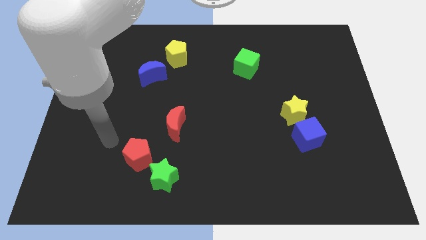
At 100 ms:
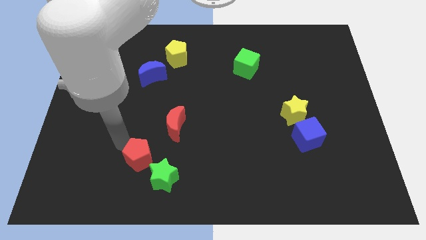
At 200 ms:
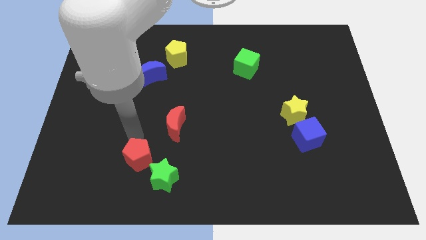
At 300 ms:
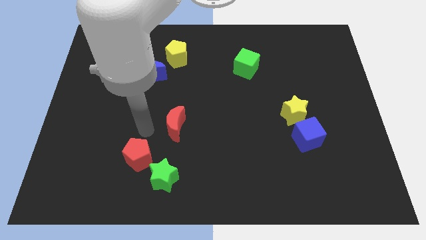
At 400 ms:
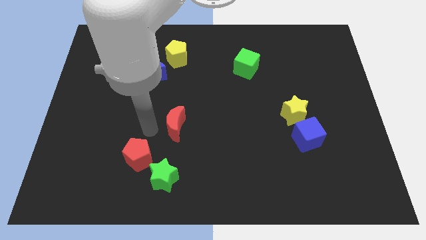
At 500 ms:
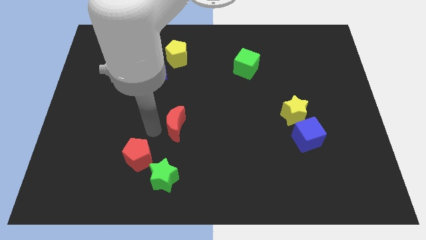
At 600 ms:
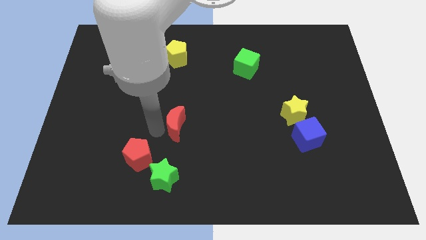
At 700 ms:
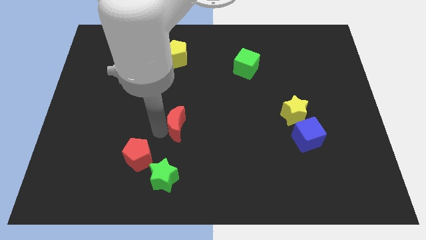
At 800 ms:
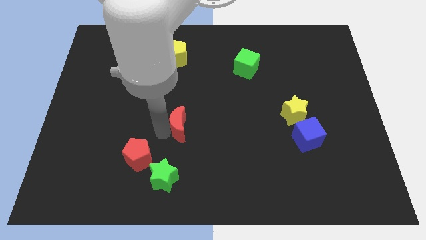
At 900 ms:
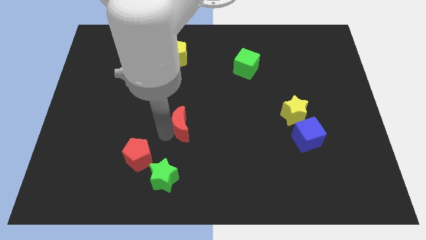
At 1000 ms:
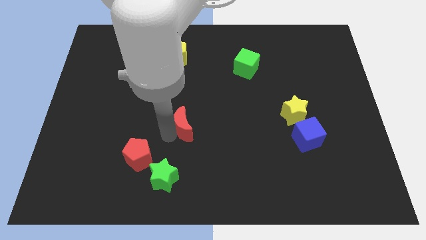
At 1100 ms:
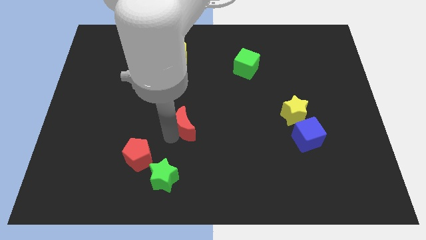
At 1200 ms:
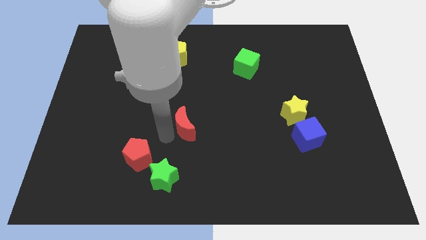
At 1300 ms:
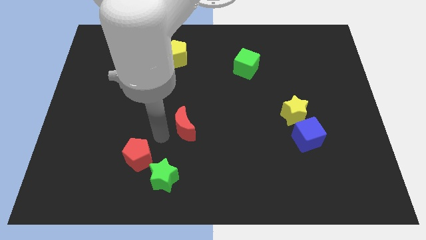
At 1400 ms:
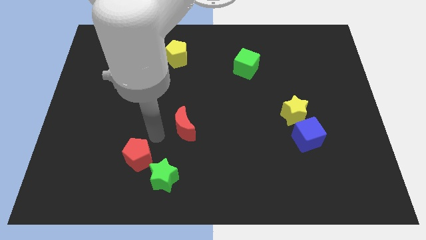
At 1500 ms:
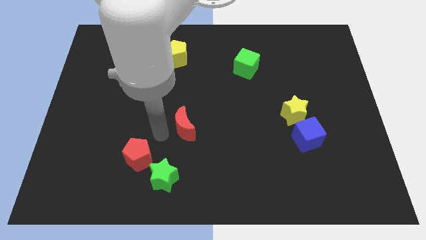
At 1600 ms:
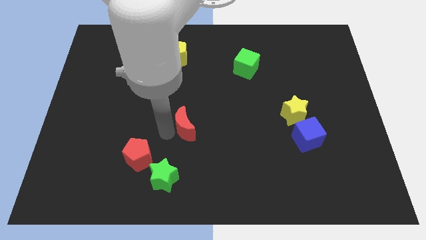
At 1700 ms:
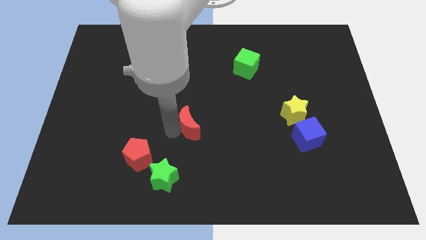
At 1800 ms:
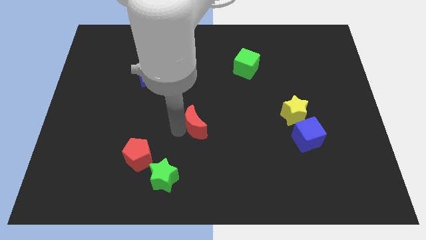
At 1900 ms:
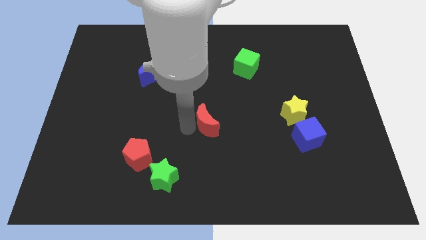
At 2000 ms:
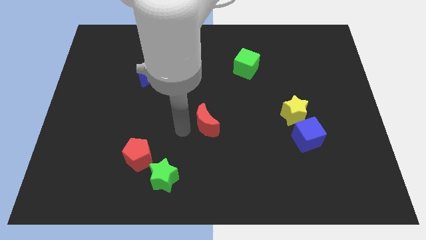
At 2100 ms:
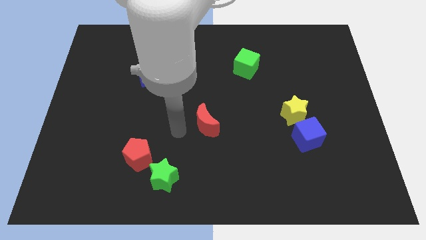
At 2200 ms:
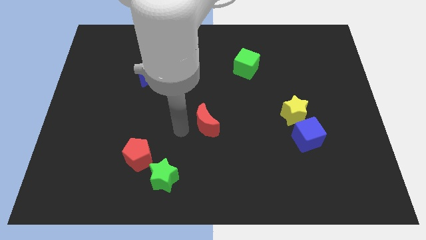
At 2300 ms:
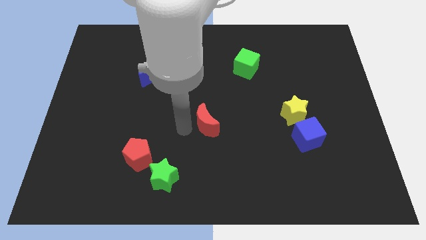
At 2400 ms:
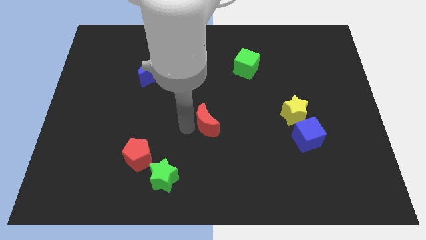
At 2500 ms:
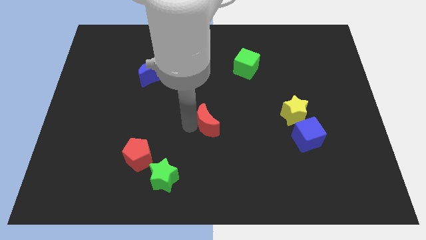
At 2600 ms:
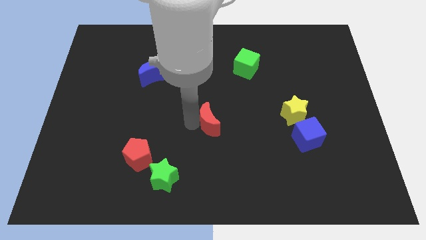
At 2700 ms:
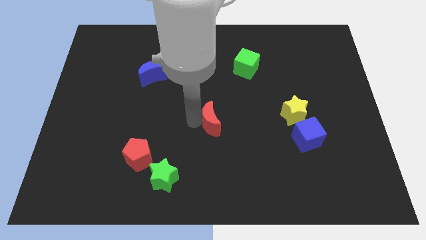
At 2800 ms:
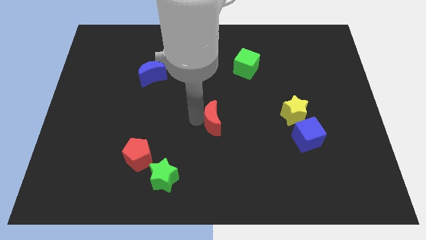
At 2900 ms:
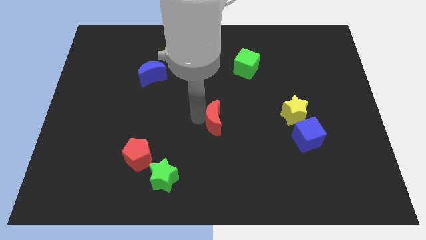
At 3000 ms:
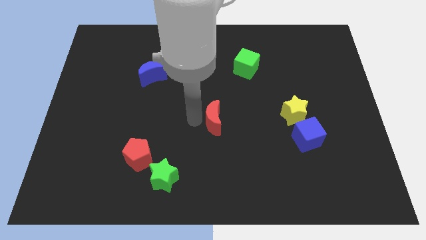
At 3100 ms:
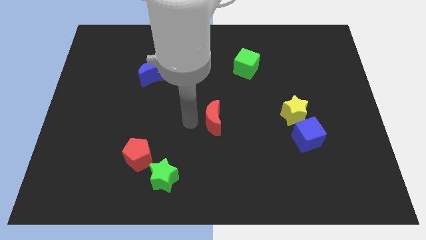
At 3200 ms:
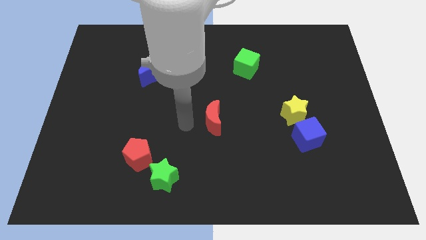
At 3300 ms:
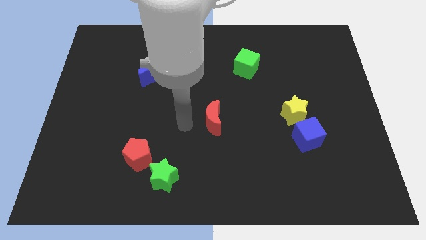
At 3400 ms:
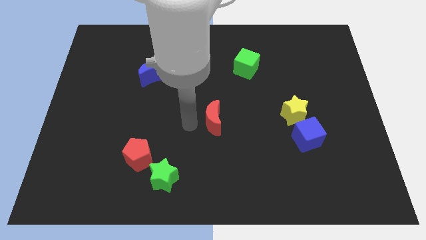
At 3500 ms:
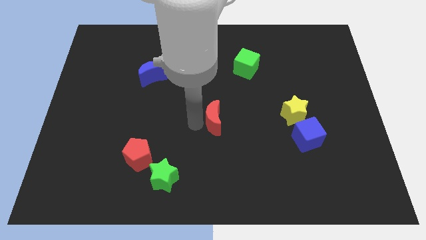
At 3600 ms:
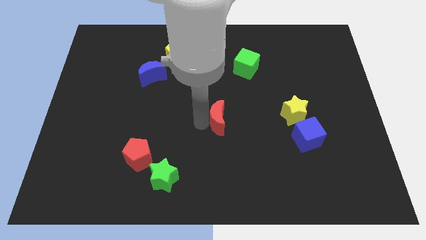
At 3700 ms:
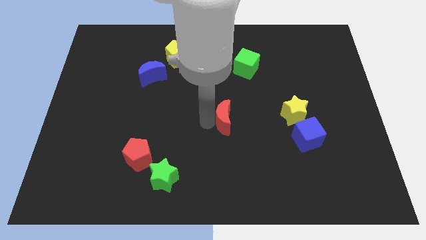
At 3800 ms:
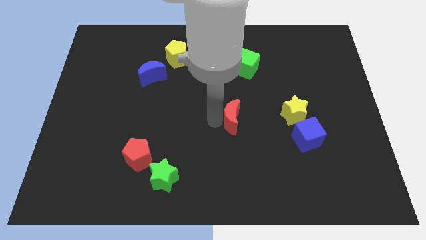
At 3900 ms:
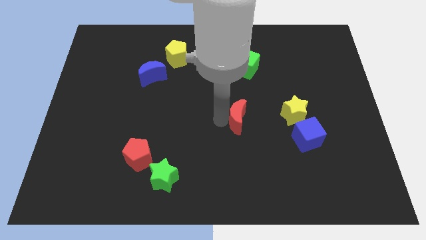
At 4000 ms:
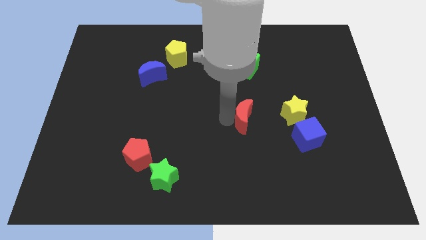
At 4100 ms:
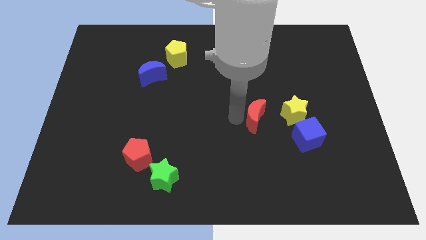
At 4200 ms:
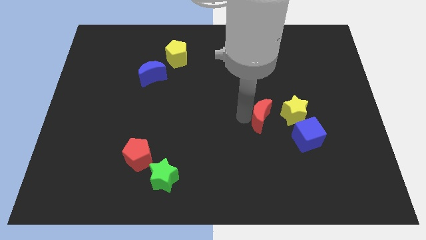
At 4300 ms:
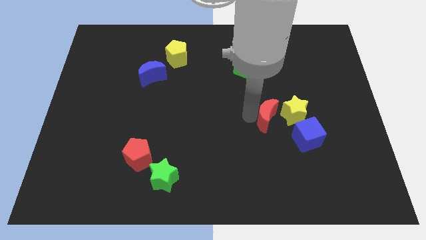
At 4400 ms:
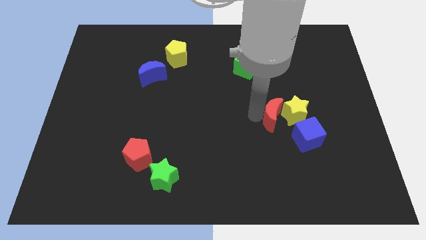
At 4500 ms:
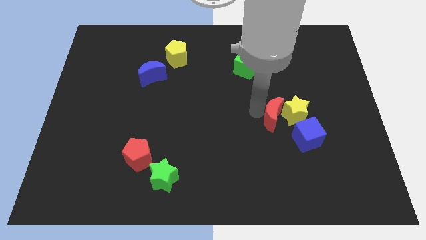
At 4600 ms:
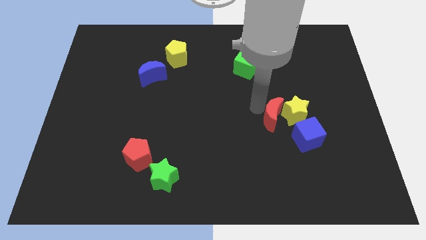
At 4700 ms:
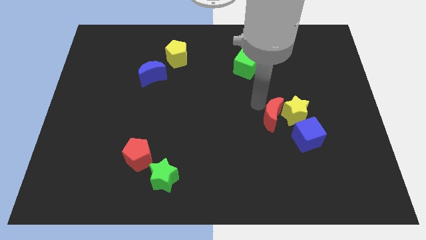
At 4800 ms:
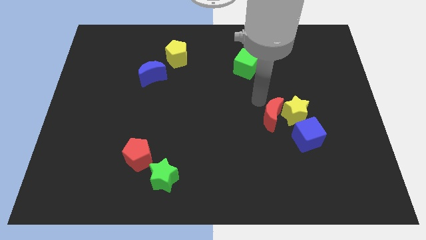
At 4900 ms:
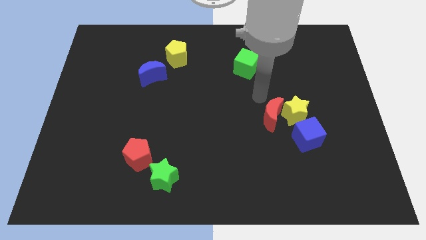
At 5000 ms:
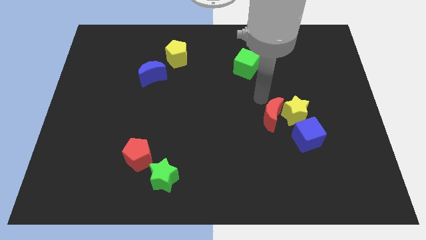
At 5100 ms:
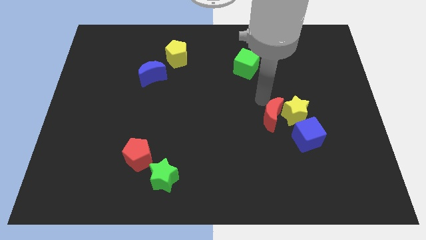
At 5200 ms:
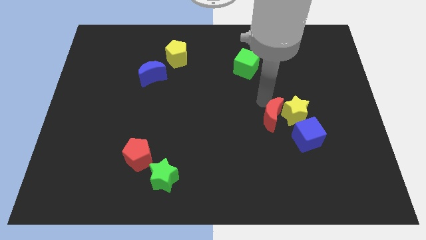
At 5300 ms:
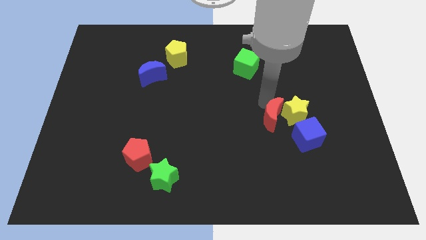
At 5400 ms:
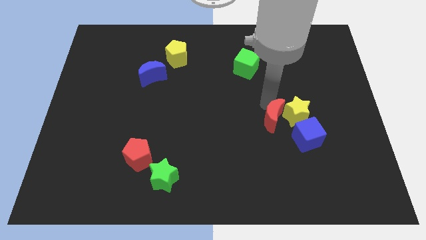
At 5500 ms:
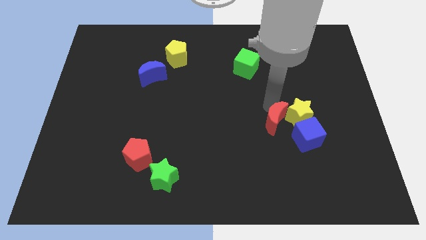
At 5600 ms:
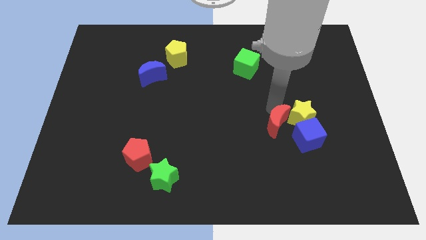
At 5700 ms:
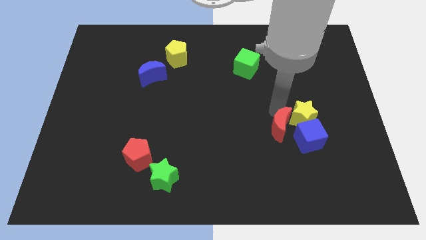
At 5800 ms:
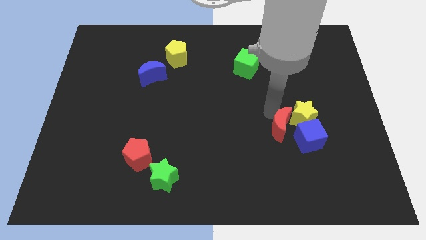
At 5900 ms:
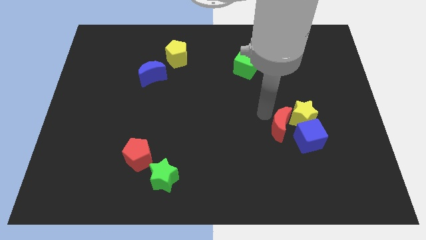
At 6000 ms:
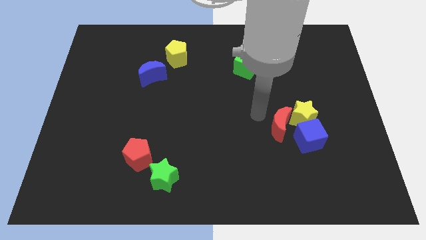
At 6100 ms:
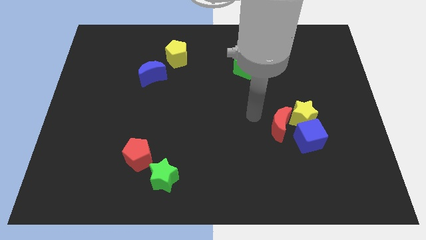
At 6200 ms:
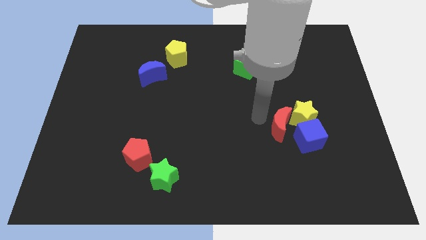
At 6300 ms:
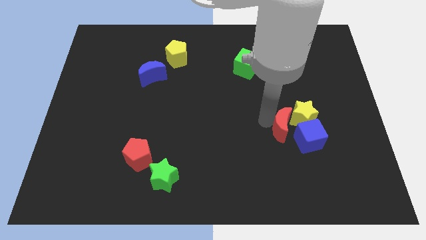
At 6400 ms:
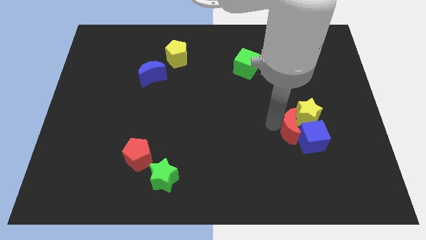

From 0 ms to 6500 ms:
push the red moon close to the blue cube
